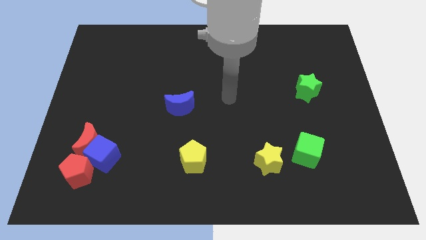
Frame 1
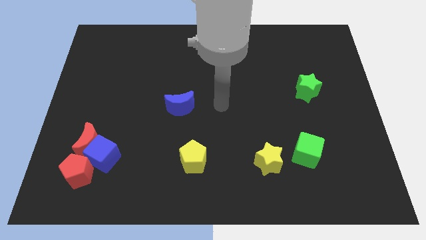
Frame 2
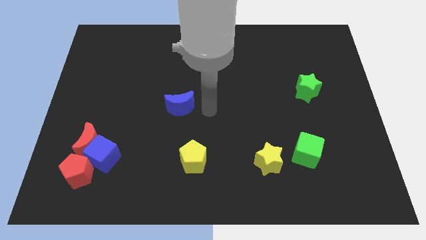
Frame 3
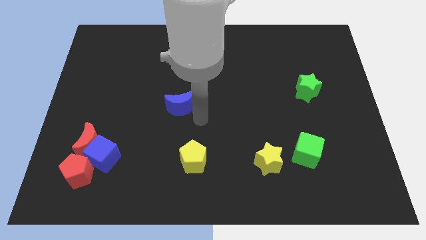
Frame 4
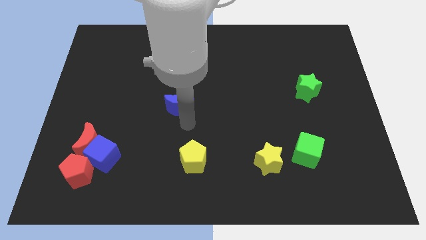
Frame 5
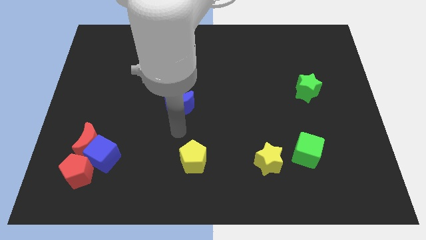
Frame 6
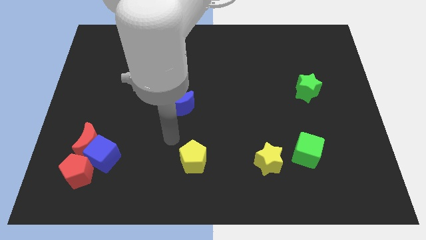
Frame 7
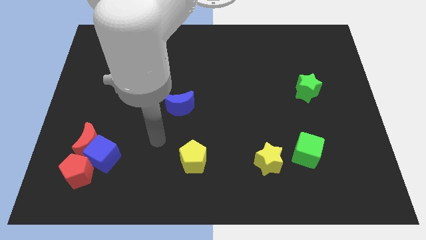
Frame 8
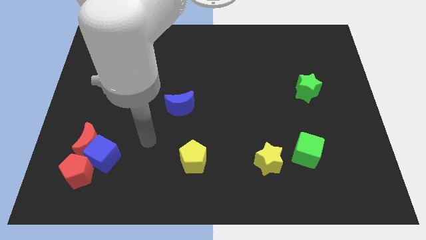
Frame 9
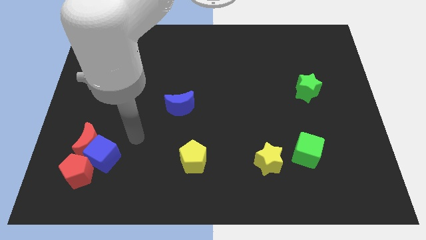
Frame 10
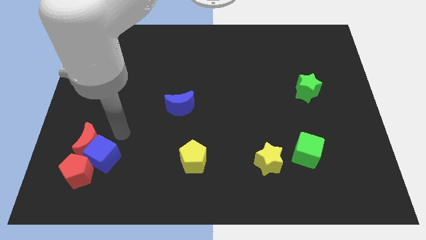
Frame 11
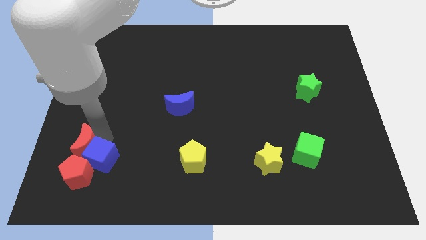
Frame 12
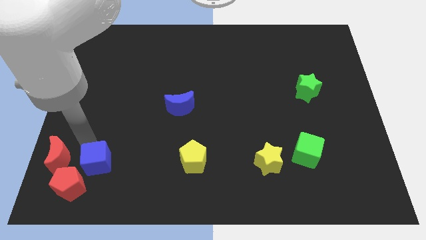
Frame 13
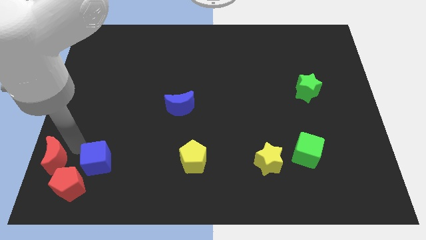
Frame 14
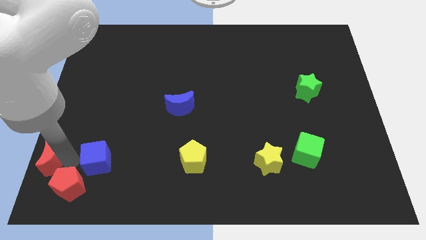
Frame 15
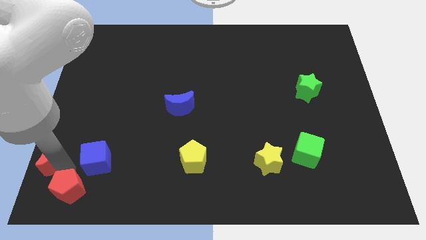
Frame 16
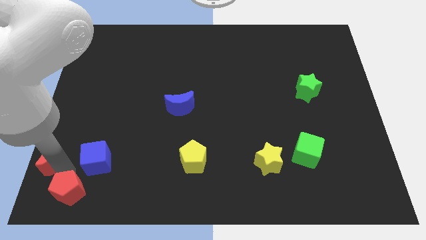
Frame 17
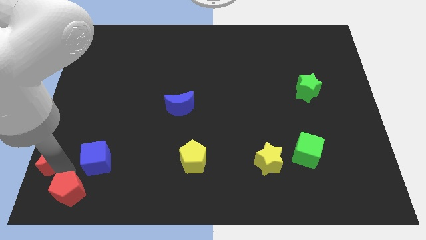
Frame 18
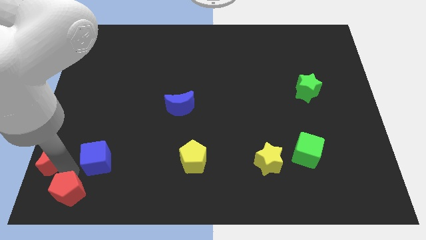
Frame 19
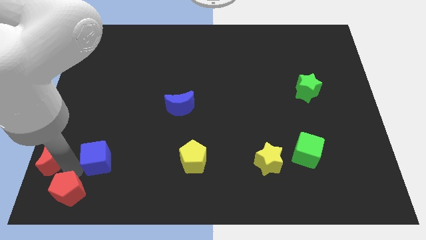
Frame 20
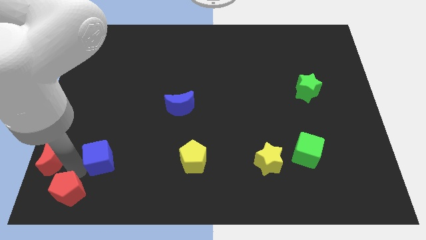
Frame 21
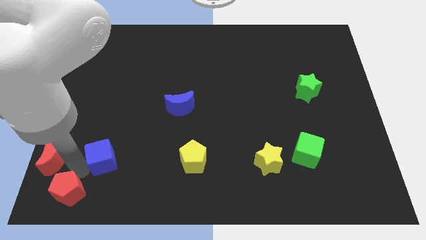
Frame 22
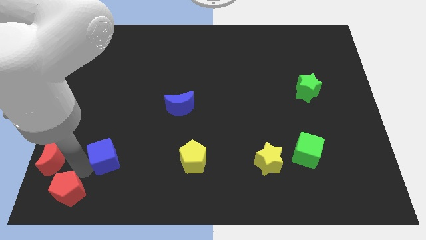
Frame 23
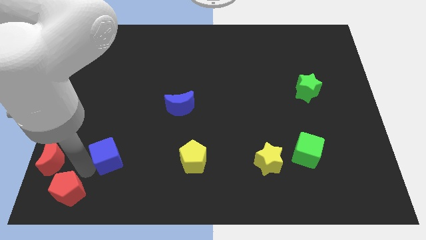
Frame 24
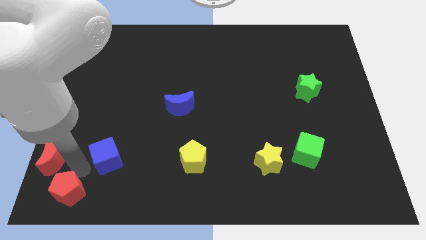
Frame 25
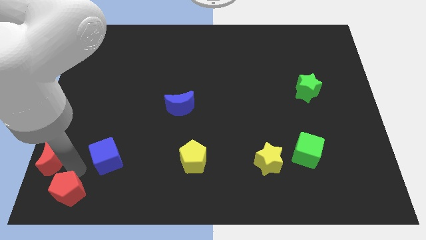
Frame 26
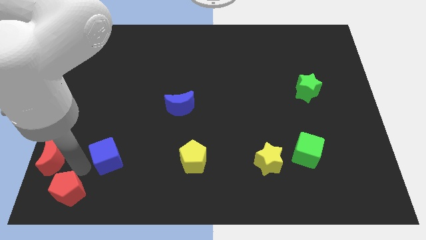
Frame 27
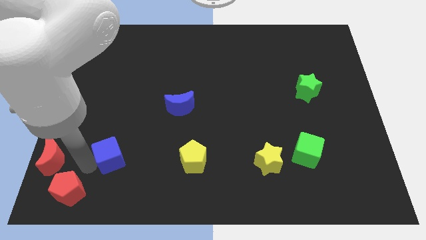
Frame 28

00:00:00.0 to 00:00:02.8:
pull the blue cube apart from the red moon and red pentagon

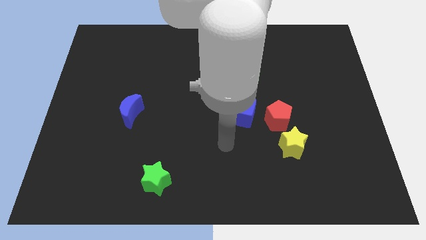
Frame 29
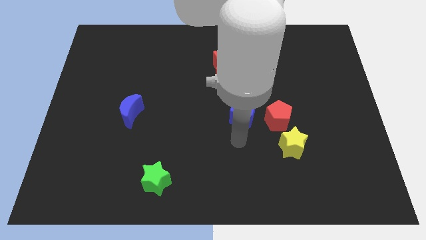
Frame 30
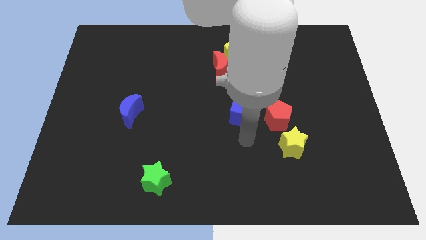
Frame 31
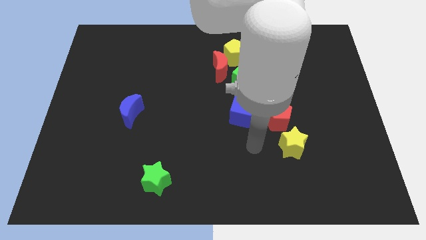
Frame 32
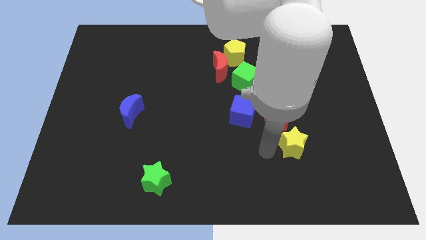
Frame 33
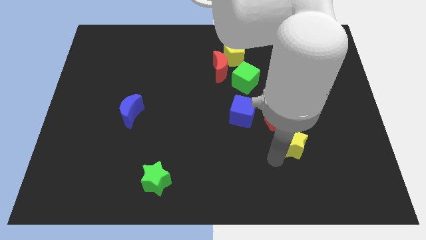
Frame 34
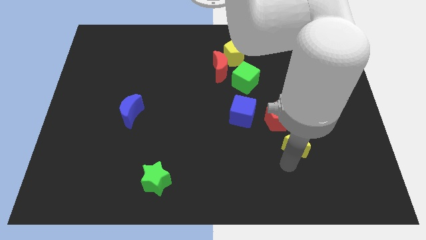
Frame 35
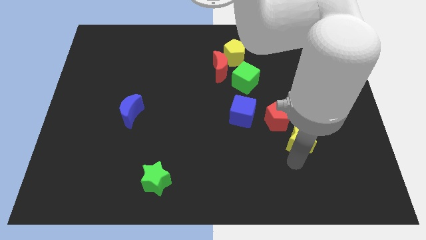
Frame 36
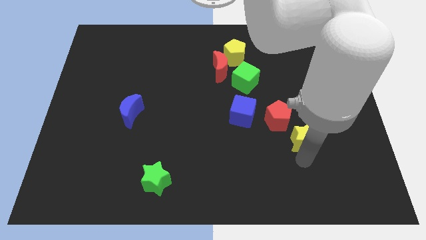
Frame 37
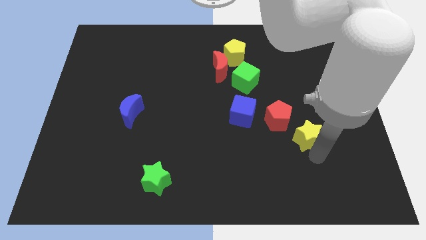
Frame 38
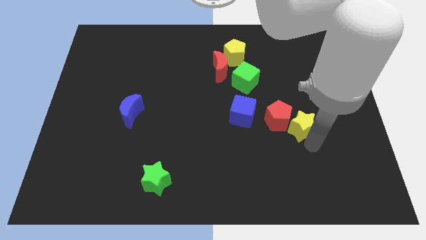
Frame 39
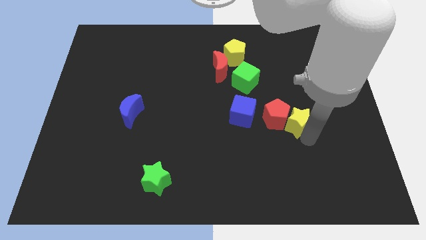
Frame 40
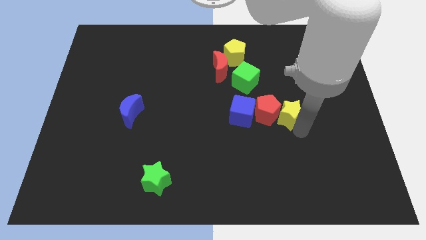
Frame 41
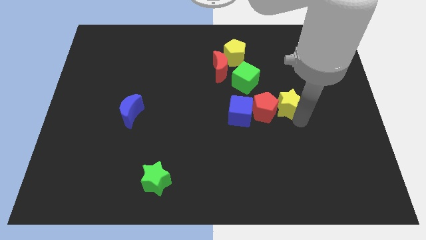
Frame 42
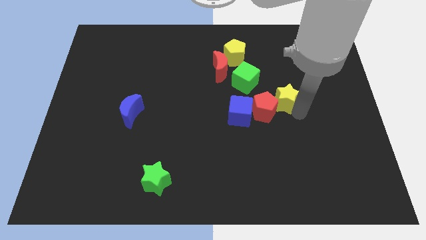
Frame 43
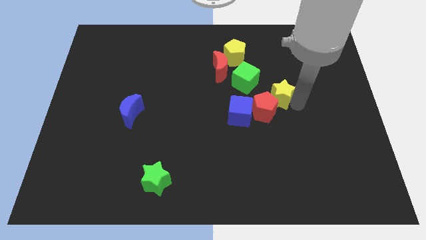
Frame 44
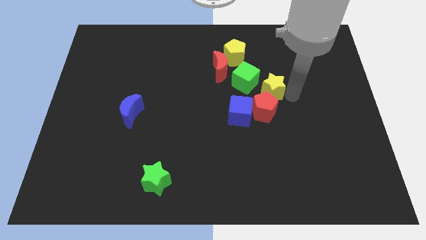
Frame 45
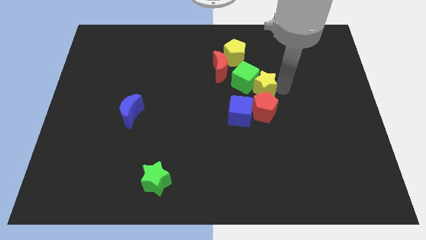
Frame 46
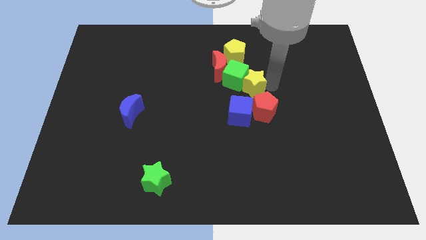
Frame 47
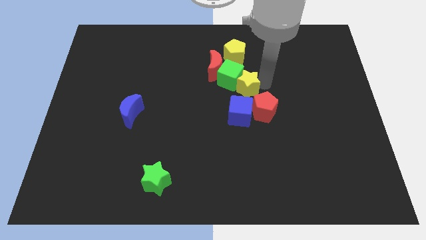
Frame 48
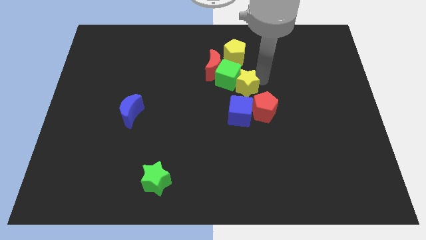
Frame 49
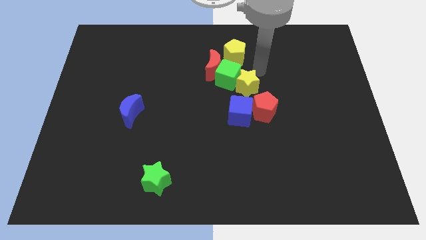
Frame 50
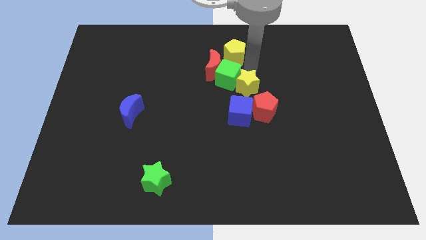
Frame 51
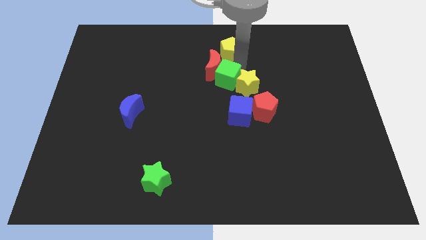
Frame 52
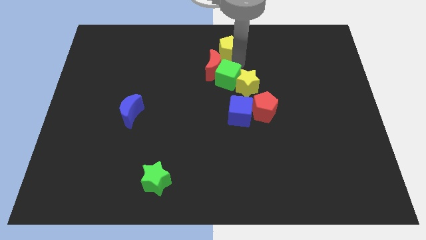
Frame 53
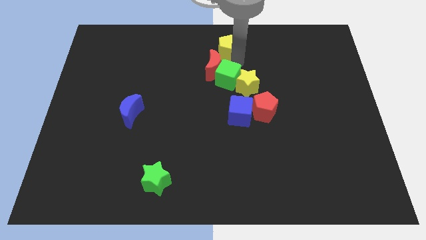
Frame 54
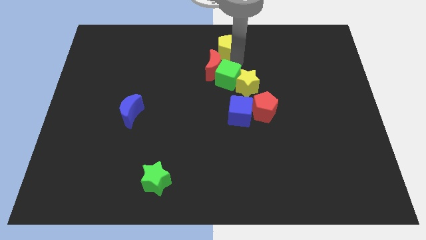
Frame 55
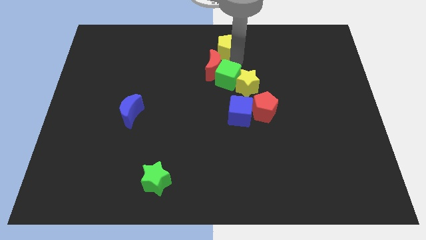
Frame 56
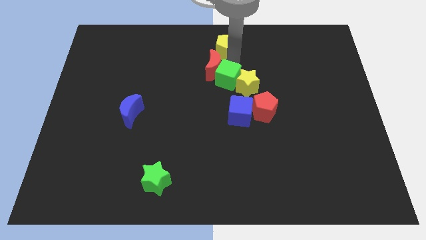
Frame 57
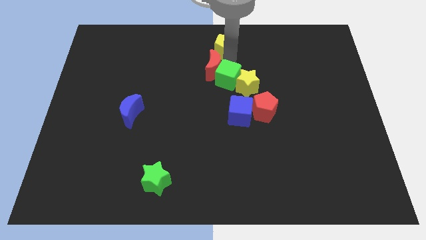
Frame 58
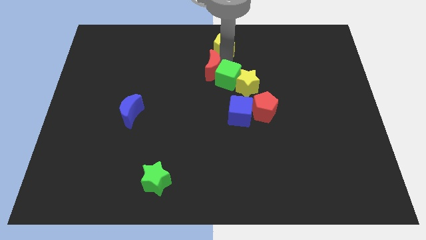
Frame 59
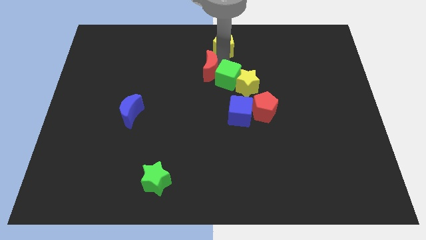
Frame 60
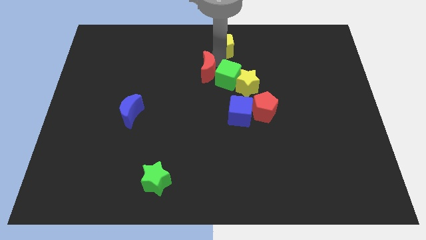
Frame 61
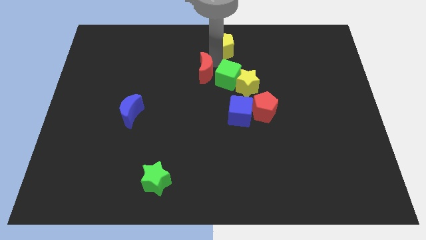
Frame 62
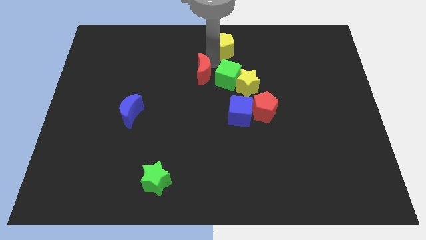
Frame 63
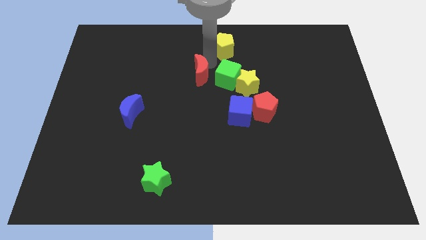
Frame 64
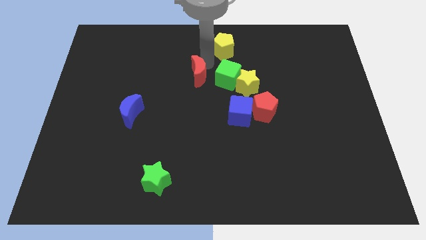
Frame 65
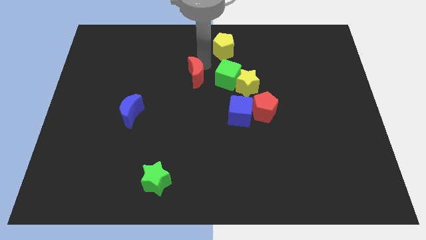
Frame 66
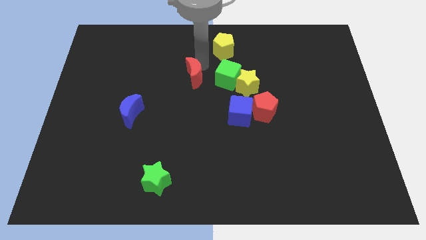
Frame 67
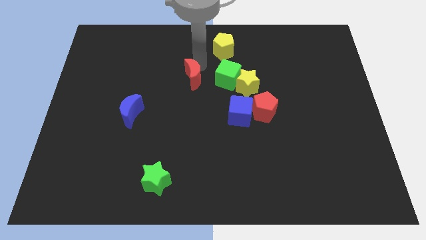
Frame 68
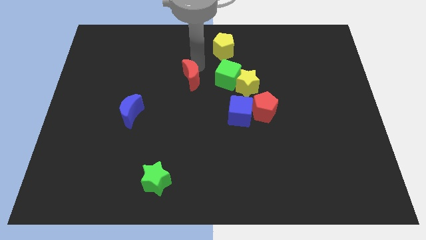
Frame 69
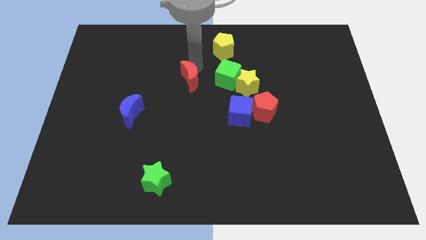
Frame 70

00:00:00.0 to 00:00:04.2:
separate the red moon from the yellow pentagon and green cube

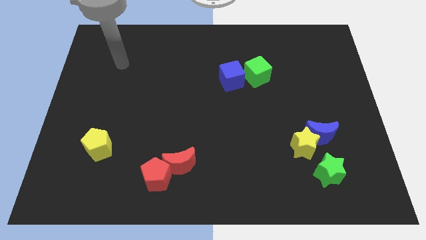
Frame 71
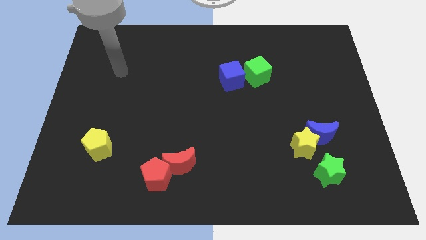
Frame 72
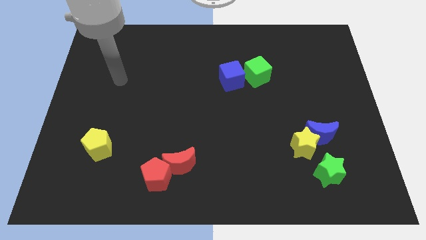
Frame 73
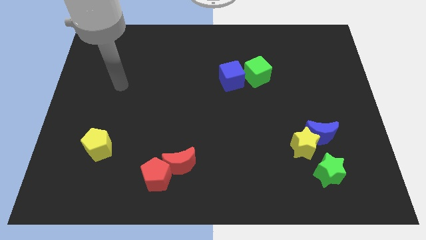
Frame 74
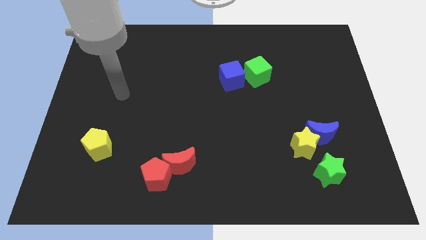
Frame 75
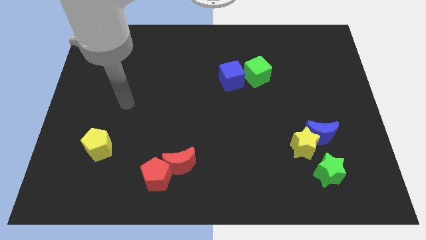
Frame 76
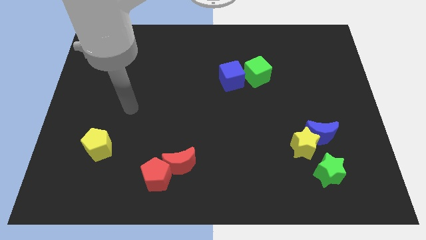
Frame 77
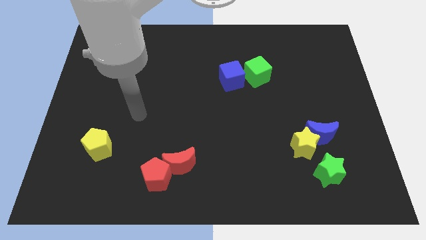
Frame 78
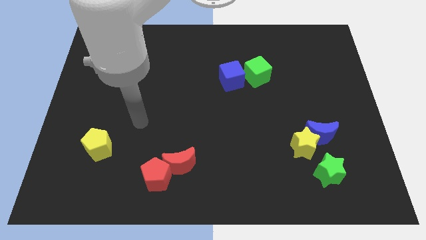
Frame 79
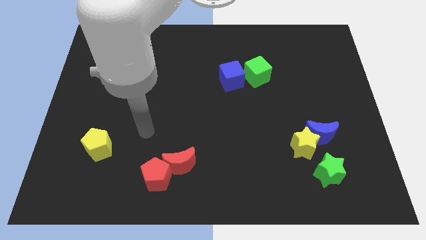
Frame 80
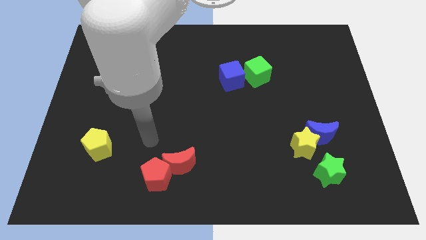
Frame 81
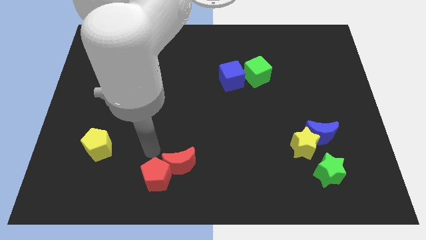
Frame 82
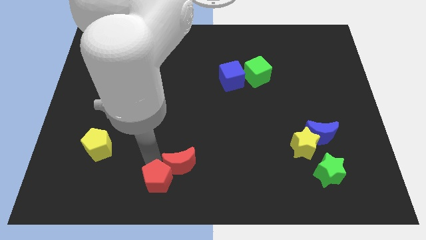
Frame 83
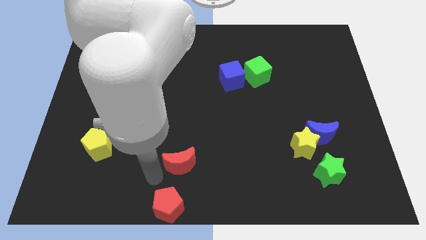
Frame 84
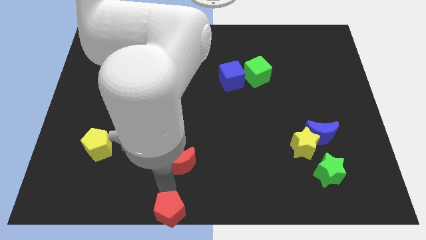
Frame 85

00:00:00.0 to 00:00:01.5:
pull the red moon apart from the red pentagon

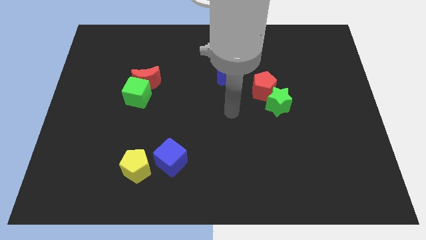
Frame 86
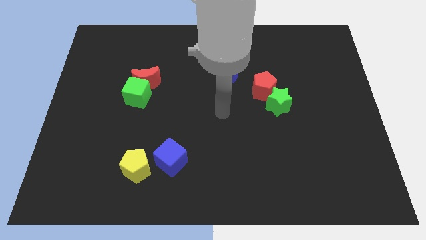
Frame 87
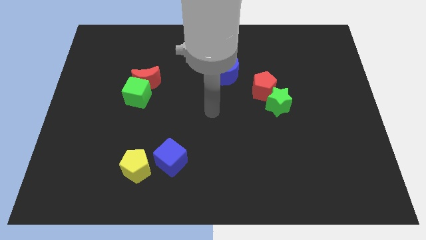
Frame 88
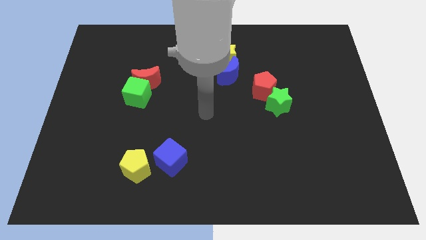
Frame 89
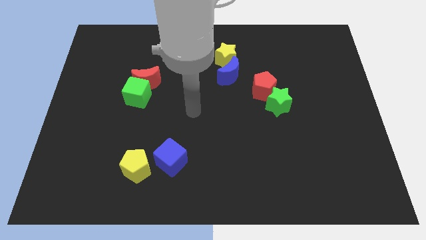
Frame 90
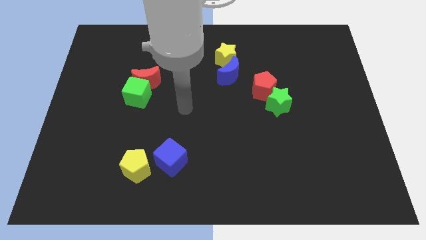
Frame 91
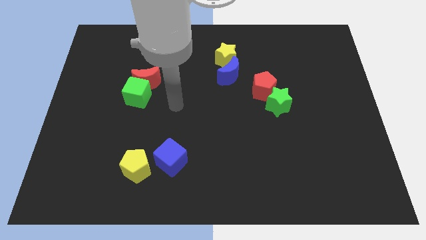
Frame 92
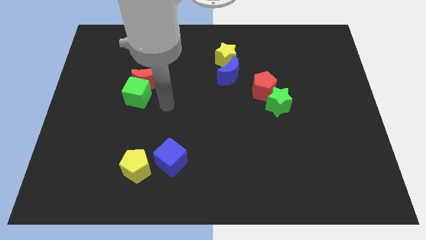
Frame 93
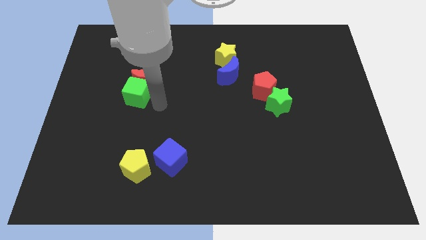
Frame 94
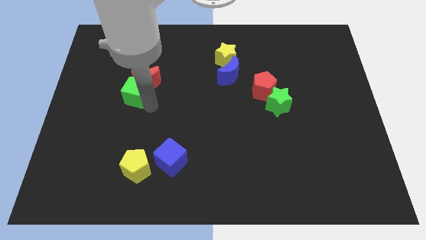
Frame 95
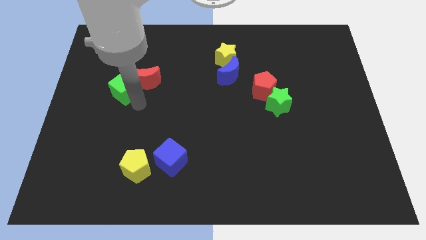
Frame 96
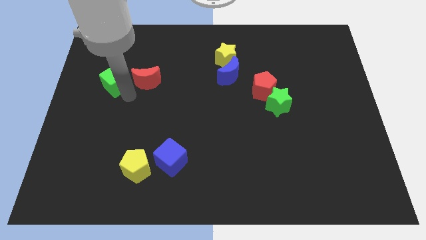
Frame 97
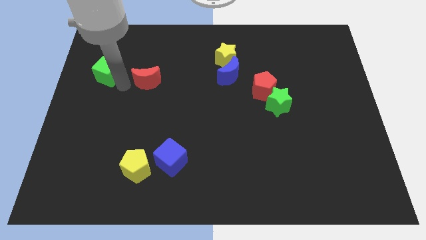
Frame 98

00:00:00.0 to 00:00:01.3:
move the red moon away from the green cube
